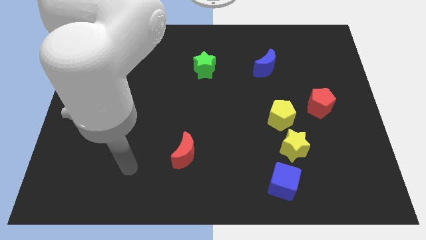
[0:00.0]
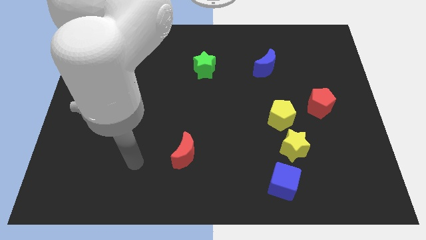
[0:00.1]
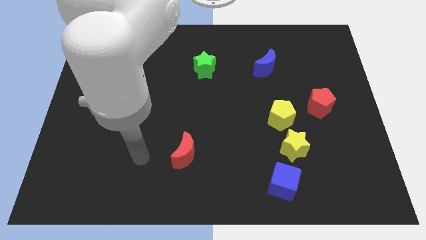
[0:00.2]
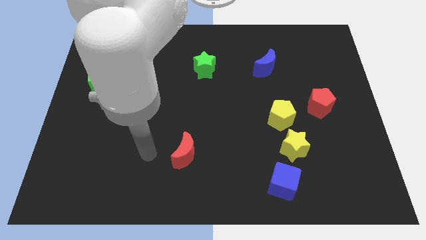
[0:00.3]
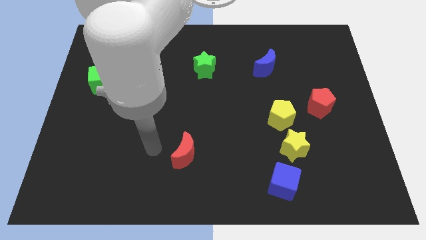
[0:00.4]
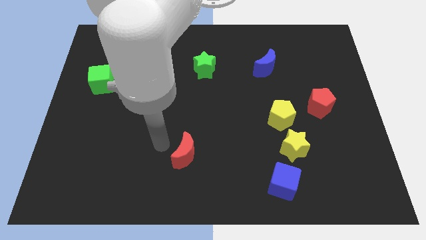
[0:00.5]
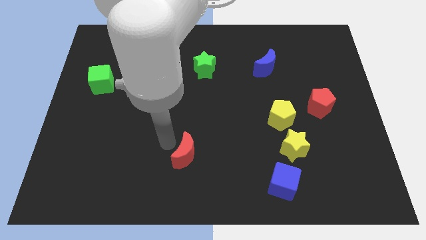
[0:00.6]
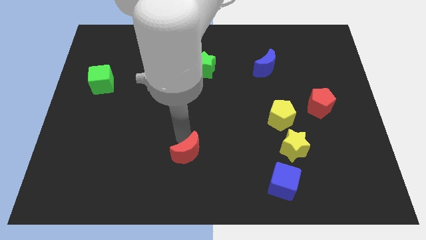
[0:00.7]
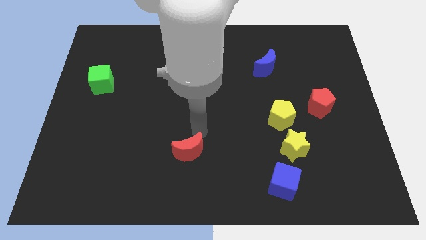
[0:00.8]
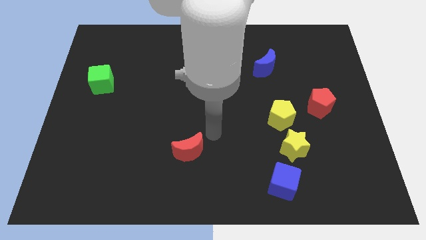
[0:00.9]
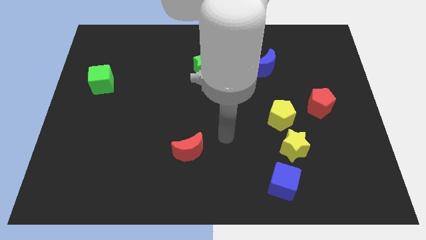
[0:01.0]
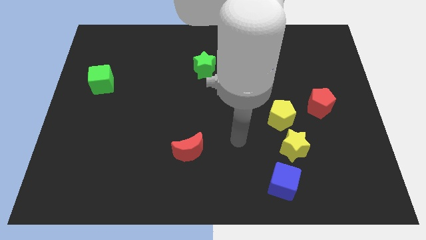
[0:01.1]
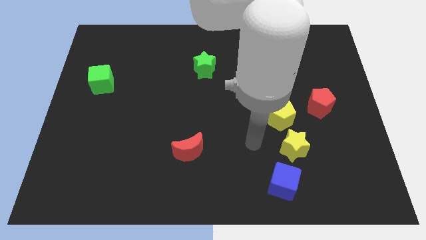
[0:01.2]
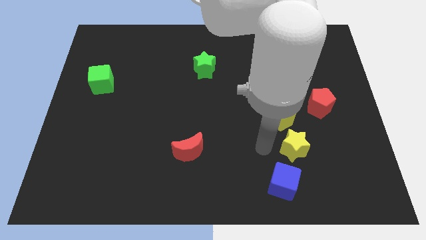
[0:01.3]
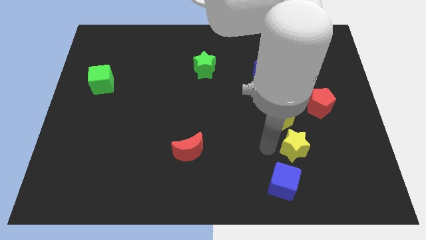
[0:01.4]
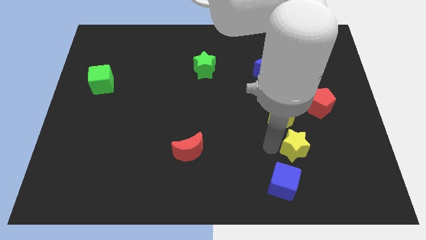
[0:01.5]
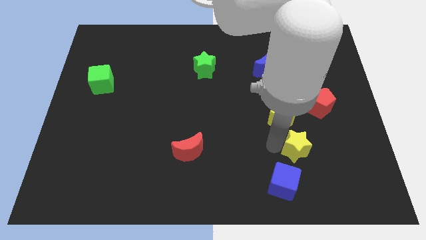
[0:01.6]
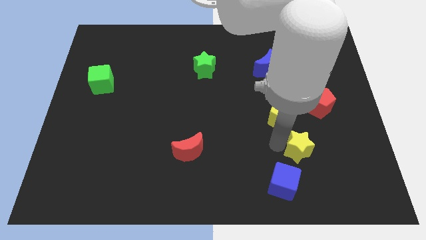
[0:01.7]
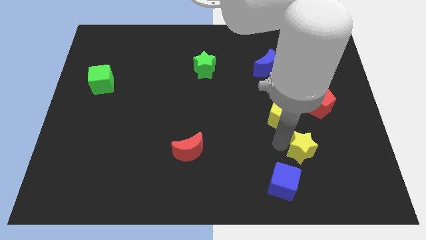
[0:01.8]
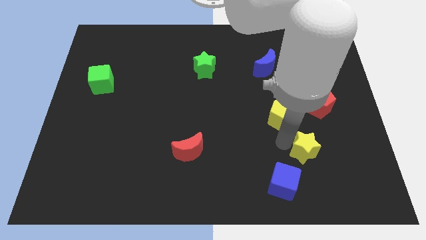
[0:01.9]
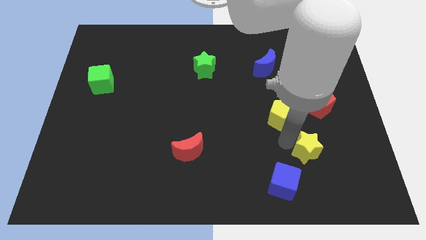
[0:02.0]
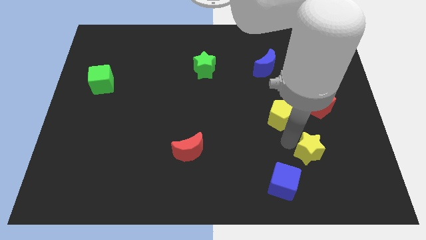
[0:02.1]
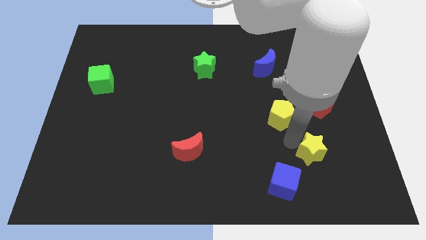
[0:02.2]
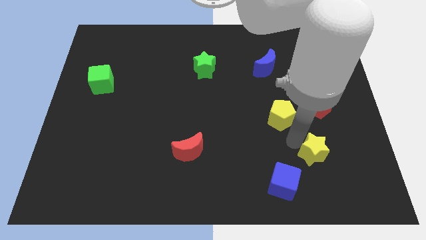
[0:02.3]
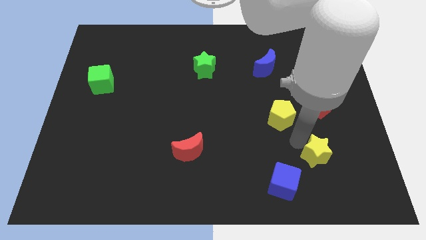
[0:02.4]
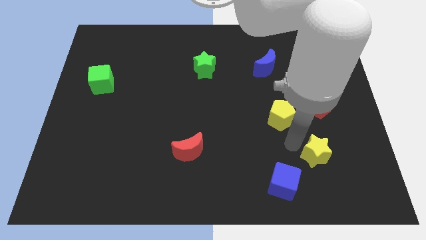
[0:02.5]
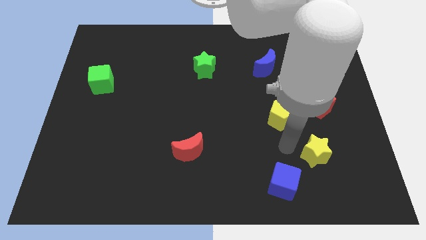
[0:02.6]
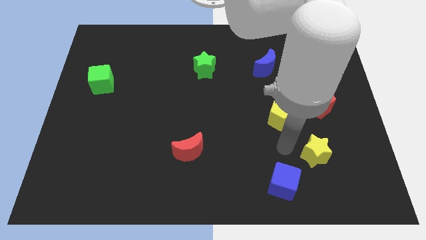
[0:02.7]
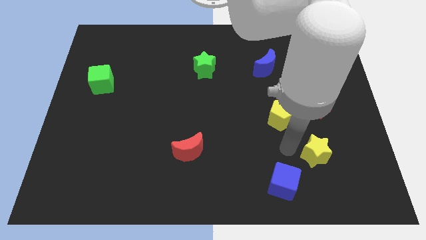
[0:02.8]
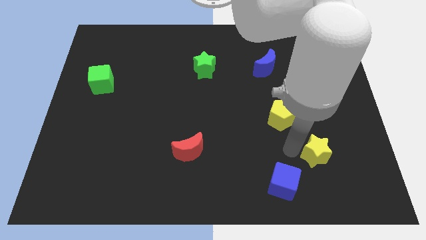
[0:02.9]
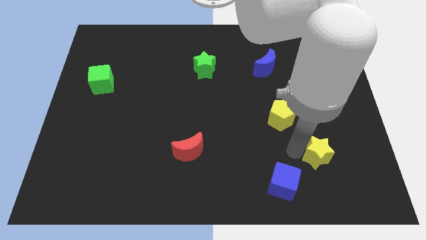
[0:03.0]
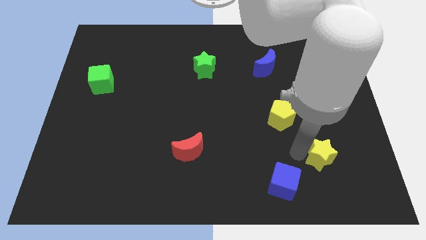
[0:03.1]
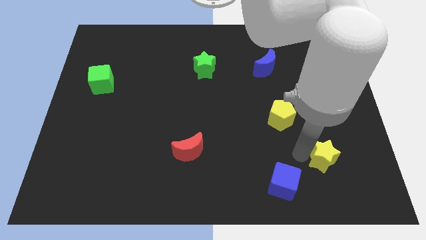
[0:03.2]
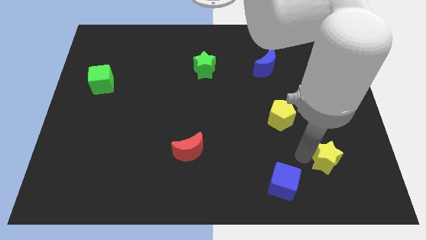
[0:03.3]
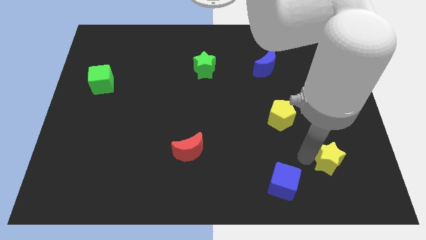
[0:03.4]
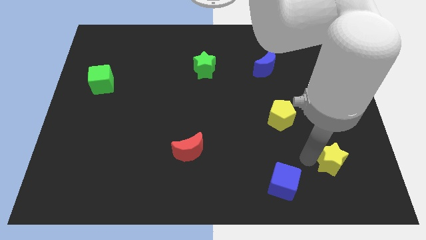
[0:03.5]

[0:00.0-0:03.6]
separate the yellow star from the yellow pentagon and blue cube

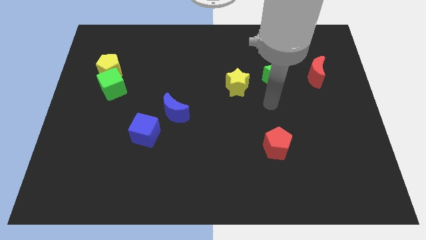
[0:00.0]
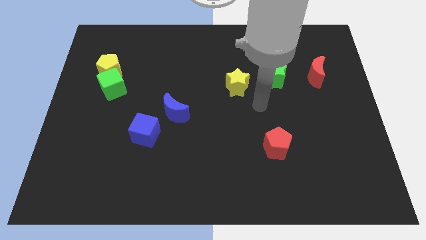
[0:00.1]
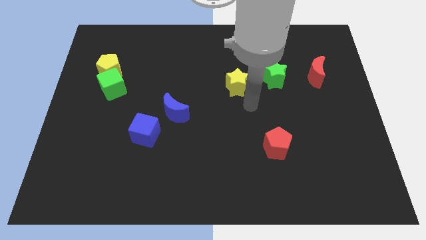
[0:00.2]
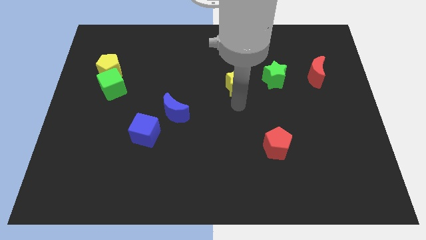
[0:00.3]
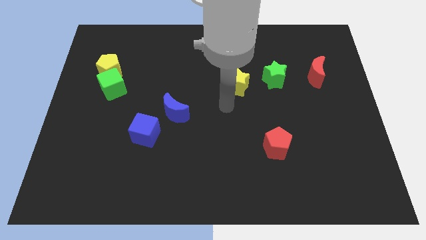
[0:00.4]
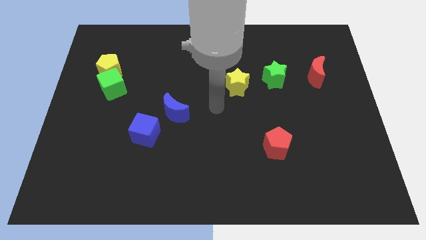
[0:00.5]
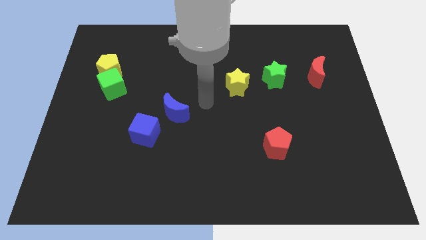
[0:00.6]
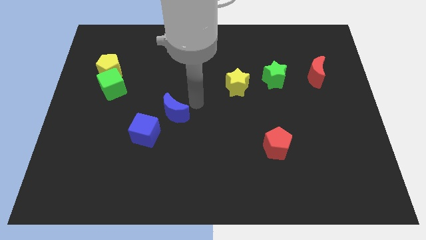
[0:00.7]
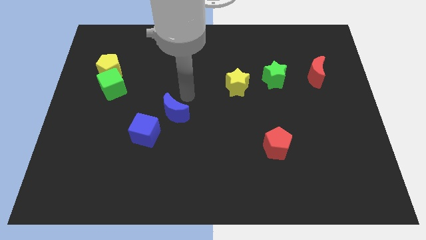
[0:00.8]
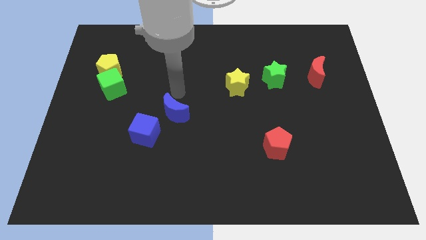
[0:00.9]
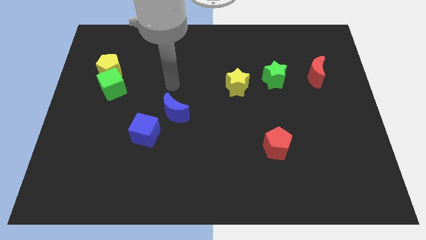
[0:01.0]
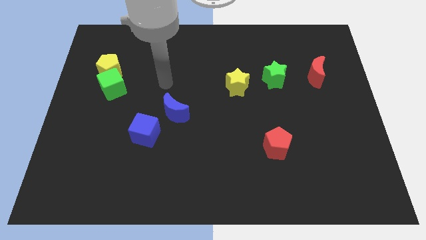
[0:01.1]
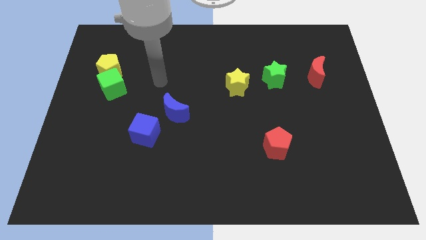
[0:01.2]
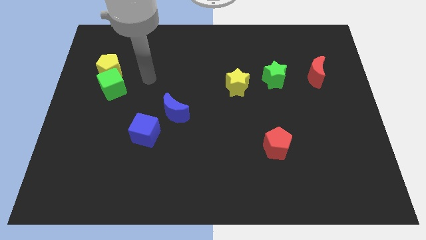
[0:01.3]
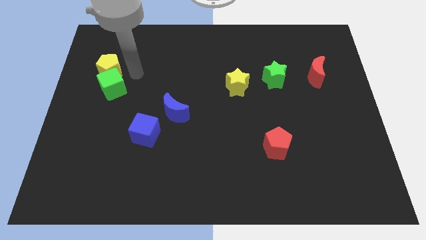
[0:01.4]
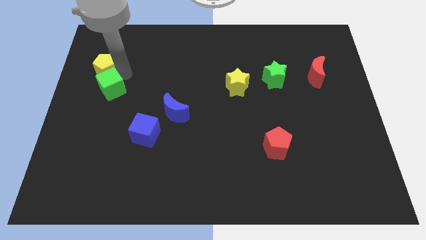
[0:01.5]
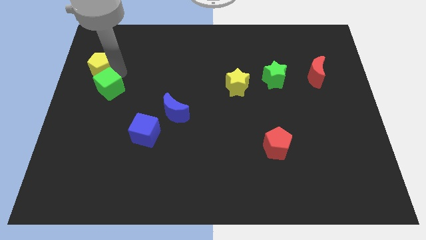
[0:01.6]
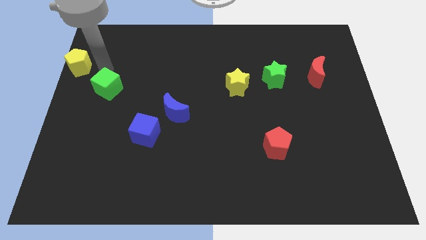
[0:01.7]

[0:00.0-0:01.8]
separate the green cube from the yellow pentagon

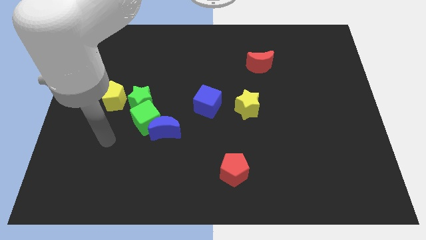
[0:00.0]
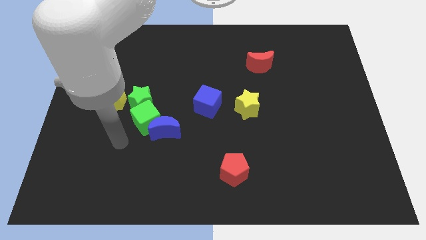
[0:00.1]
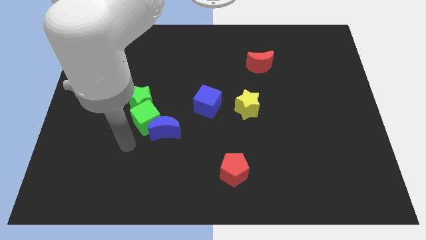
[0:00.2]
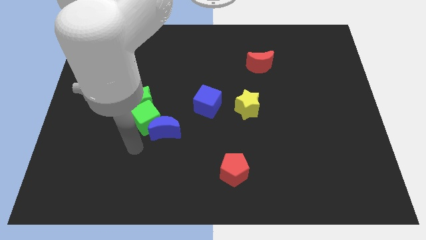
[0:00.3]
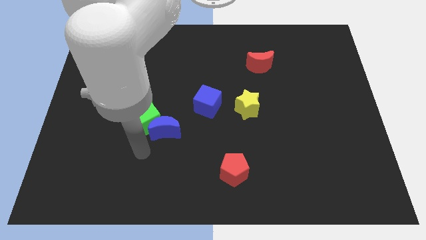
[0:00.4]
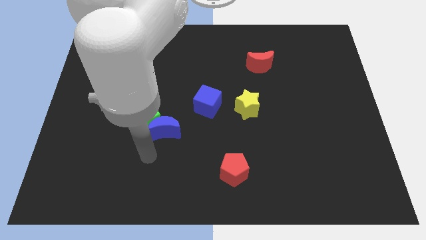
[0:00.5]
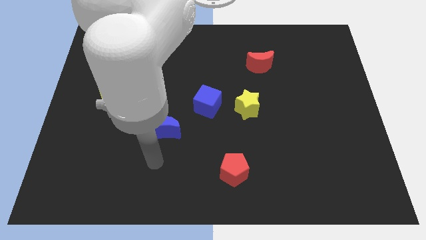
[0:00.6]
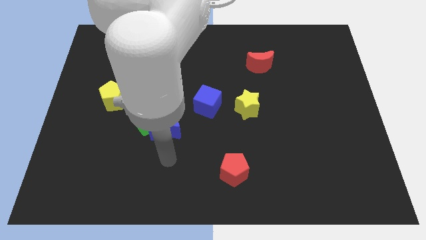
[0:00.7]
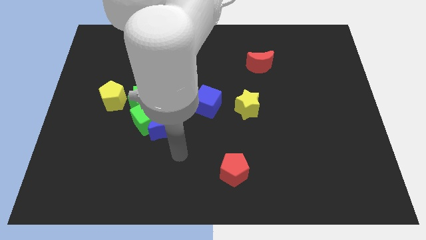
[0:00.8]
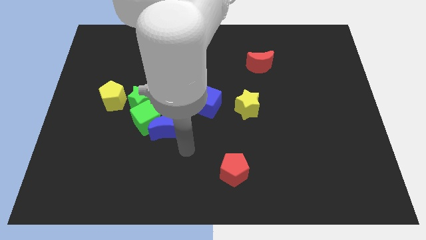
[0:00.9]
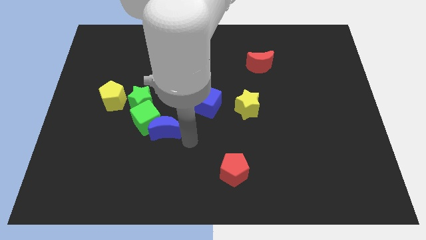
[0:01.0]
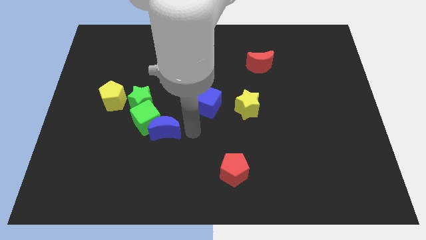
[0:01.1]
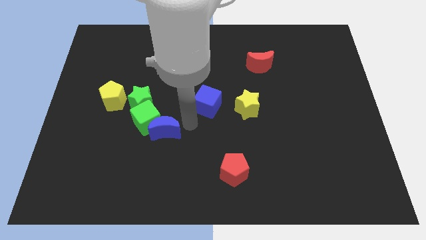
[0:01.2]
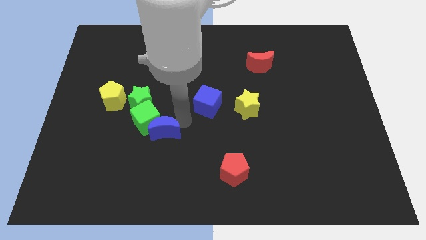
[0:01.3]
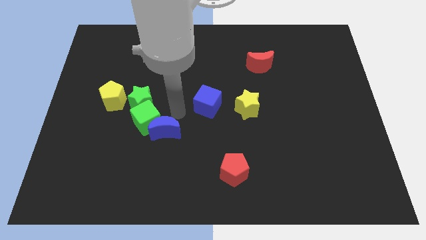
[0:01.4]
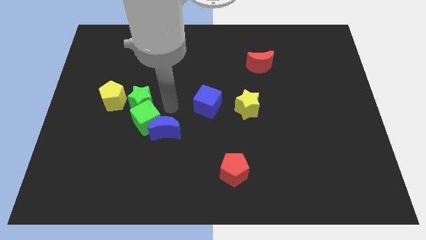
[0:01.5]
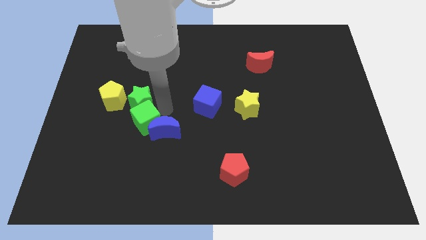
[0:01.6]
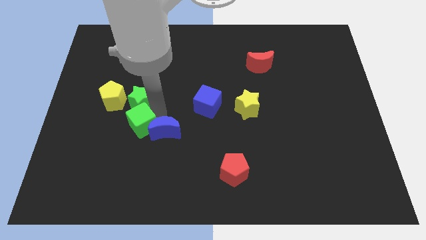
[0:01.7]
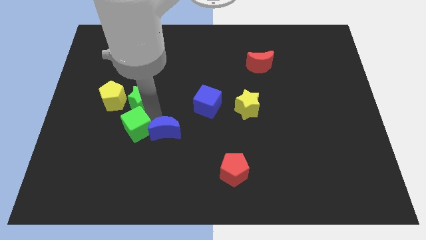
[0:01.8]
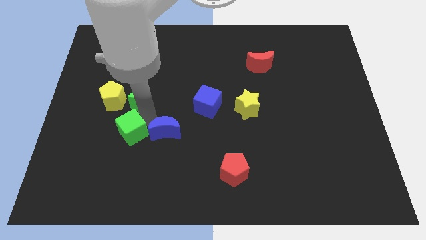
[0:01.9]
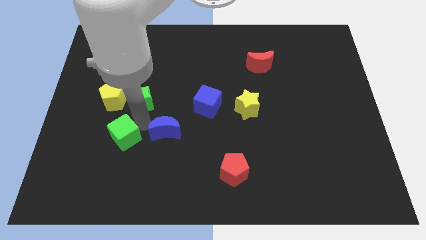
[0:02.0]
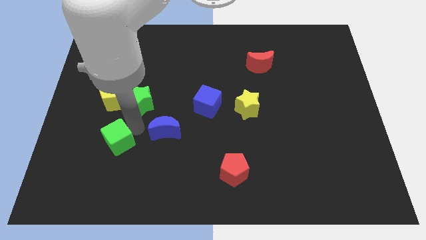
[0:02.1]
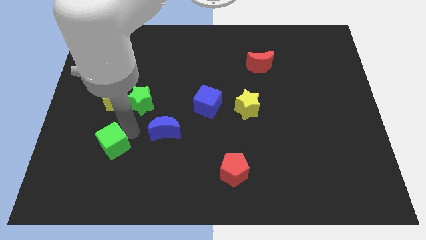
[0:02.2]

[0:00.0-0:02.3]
separate the green cube from the blue moon and green star

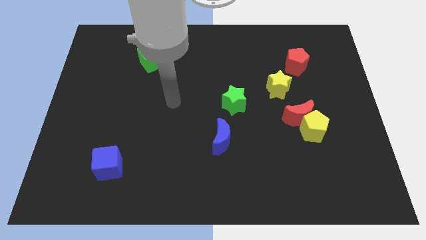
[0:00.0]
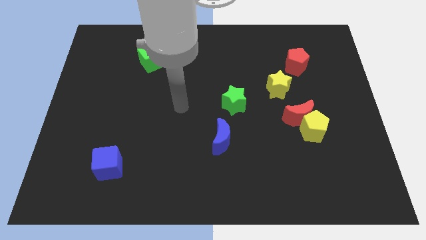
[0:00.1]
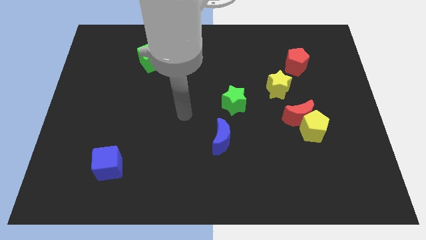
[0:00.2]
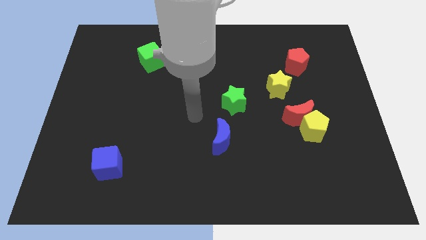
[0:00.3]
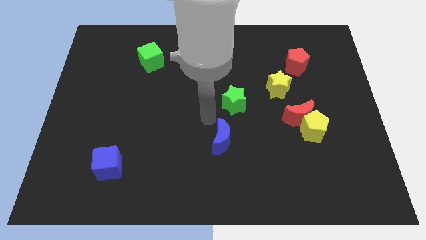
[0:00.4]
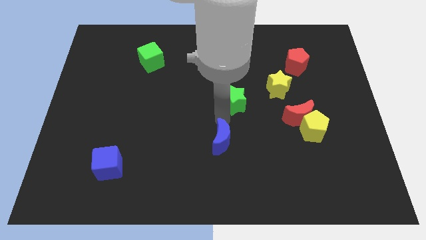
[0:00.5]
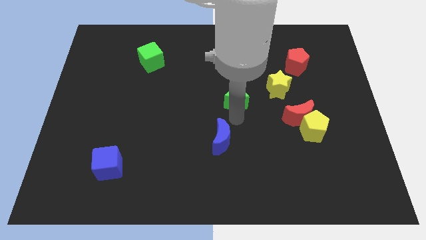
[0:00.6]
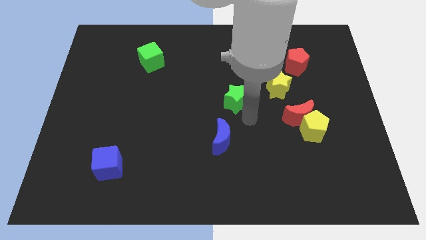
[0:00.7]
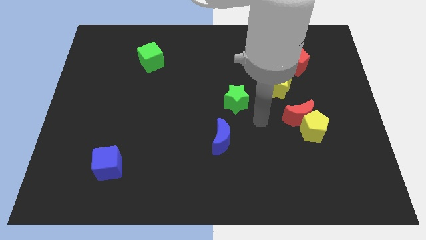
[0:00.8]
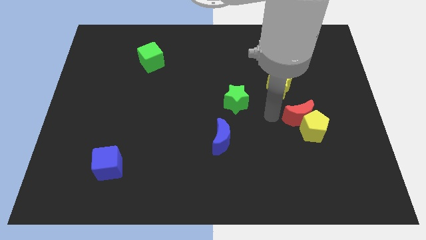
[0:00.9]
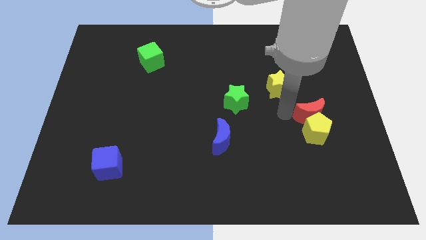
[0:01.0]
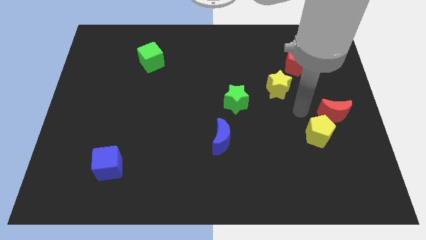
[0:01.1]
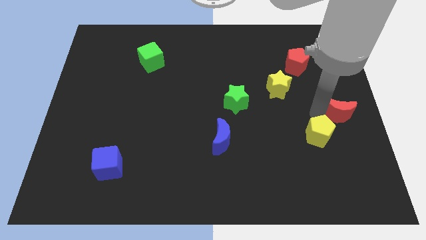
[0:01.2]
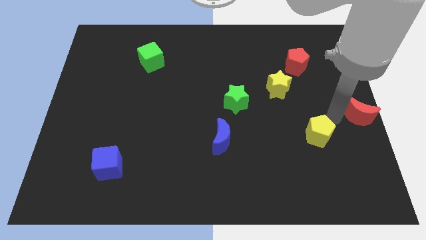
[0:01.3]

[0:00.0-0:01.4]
pull the yellow pentagon apart from the red moon
